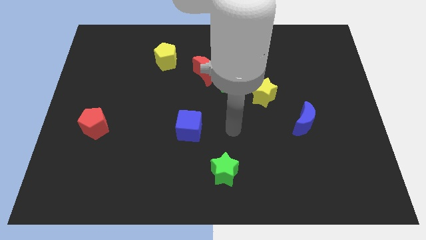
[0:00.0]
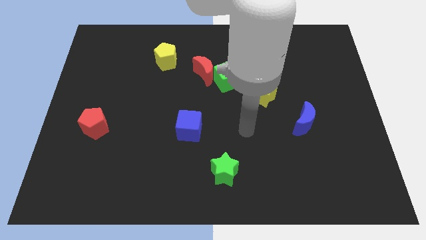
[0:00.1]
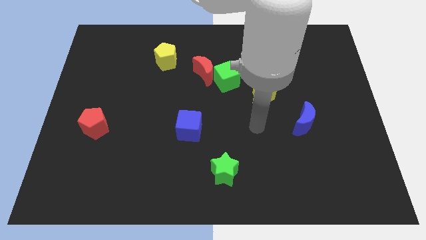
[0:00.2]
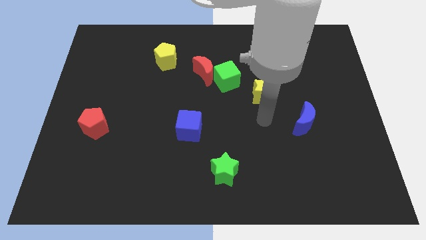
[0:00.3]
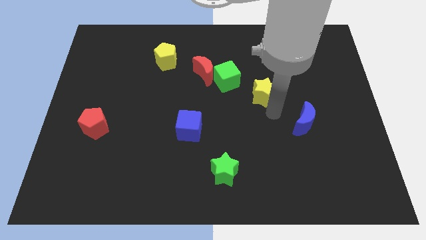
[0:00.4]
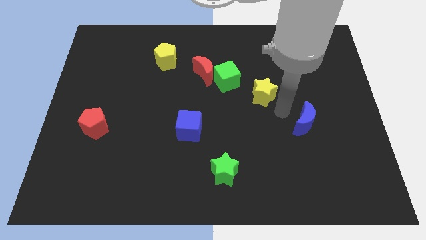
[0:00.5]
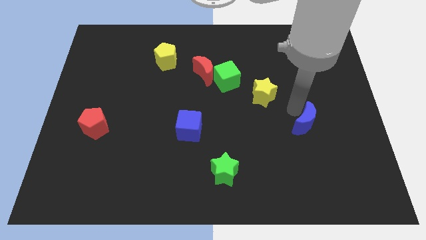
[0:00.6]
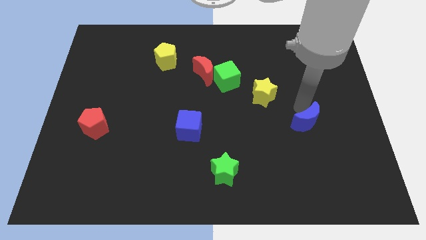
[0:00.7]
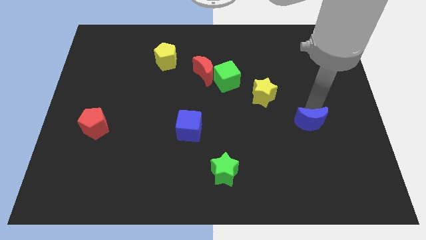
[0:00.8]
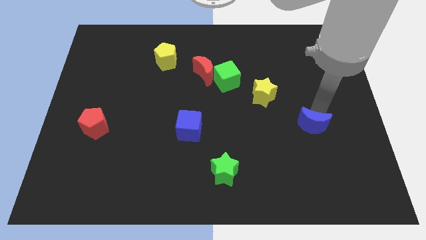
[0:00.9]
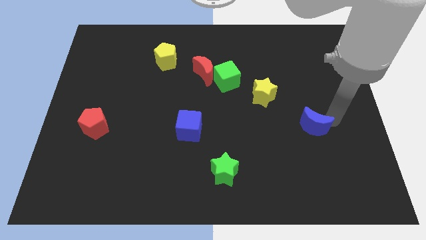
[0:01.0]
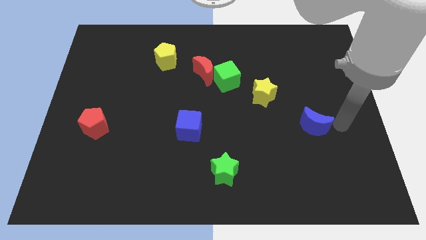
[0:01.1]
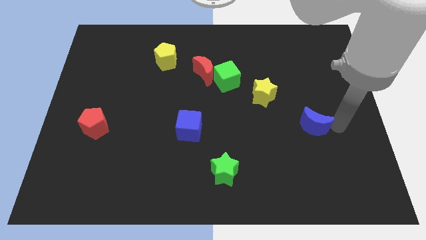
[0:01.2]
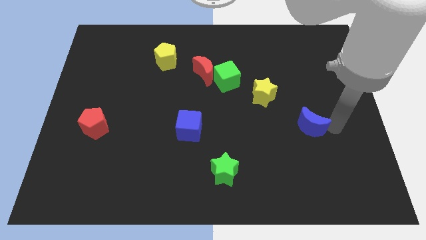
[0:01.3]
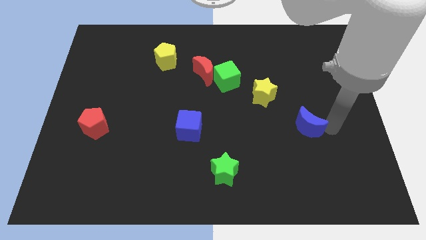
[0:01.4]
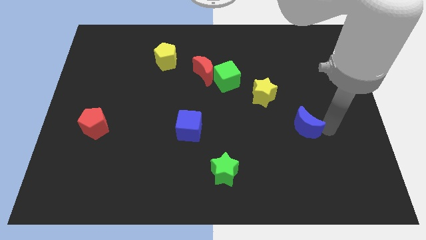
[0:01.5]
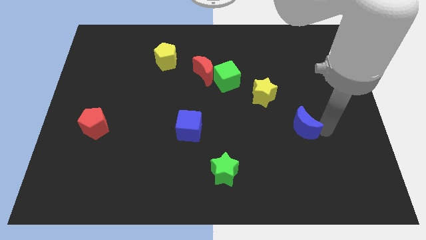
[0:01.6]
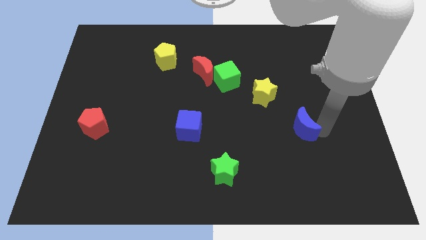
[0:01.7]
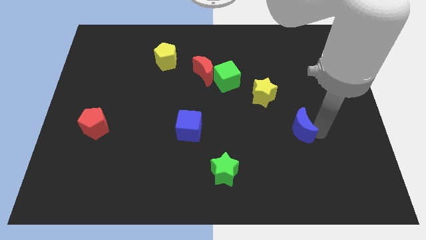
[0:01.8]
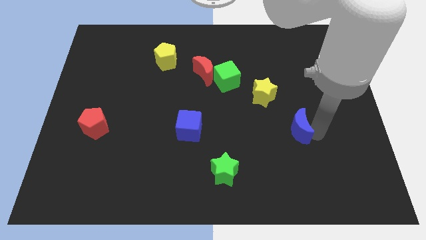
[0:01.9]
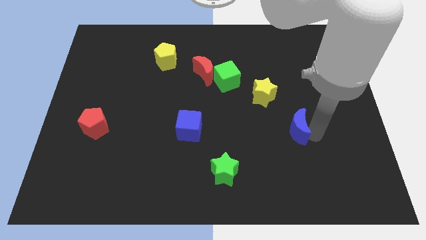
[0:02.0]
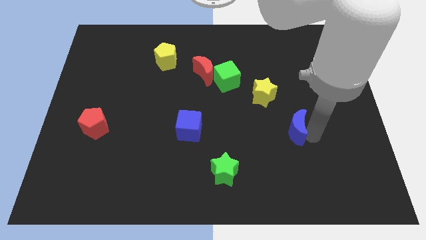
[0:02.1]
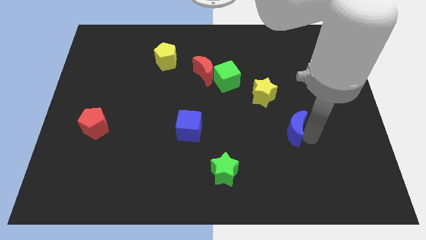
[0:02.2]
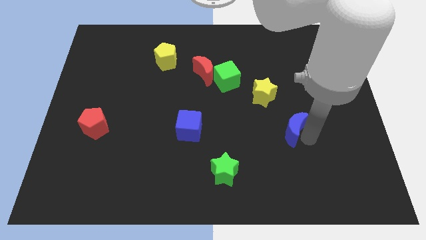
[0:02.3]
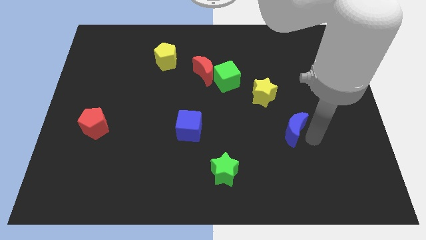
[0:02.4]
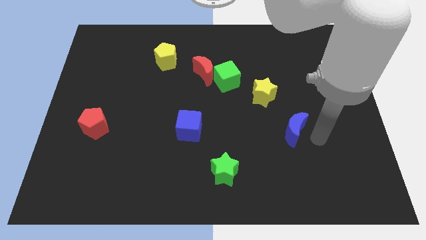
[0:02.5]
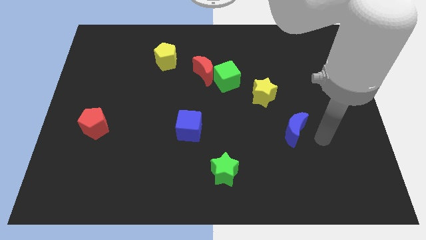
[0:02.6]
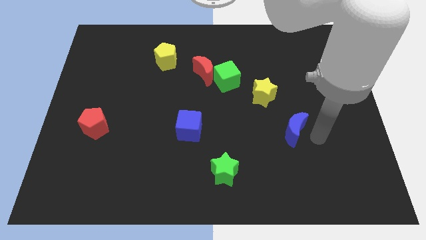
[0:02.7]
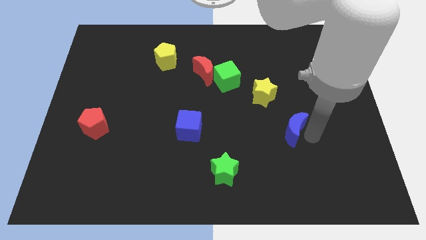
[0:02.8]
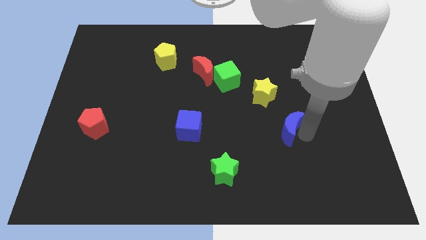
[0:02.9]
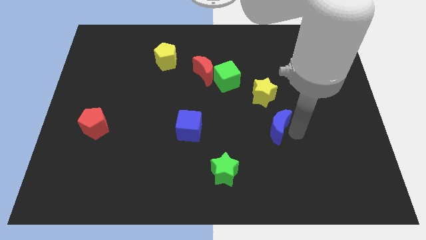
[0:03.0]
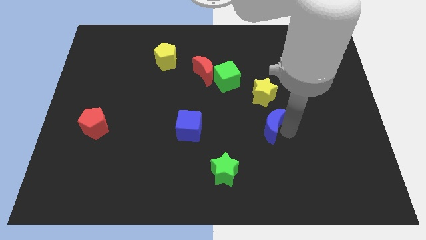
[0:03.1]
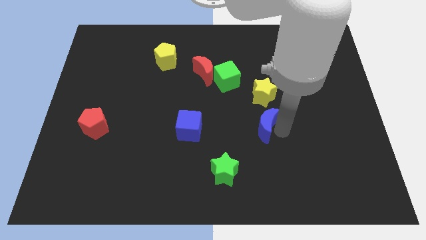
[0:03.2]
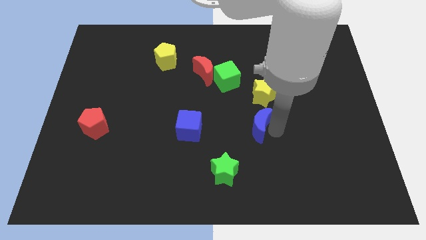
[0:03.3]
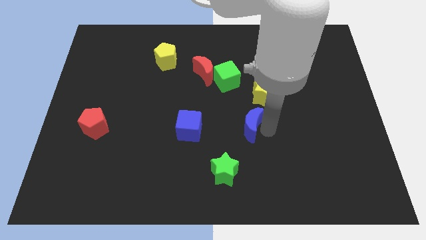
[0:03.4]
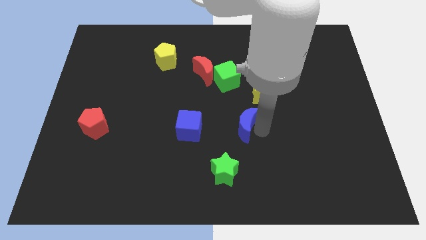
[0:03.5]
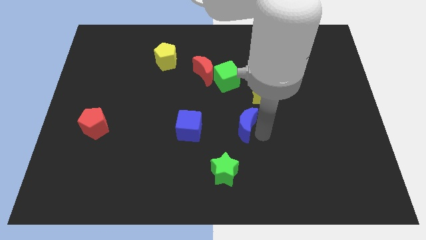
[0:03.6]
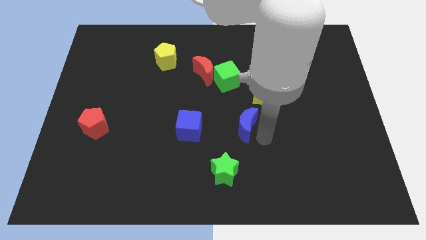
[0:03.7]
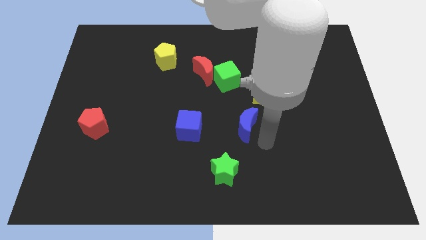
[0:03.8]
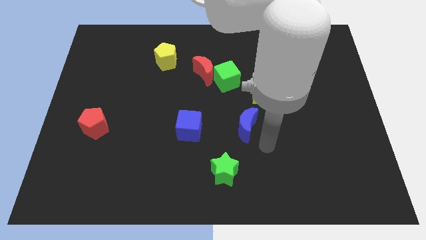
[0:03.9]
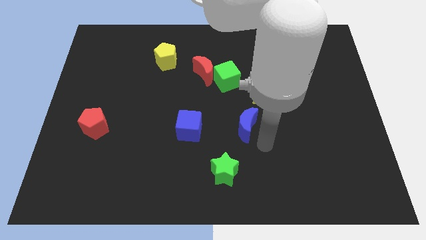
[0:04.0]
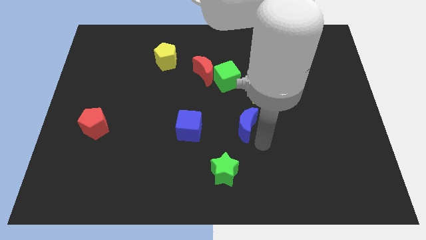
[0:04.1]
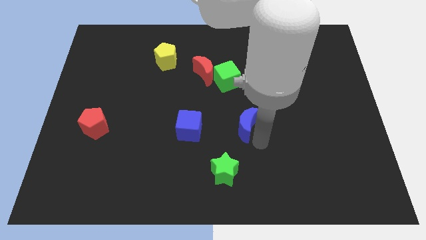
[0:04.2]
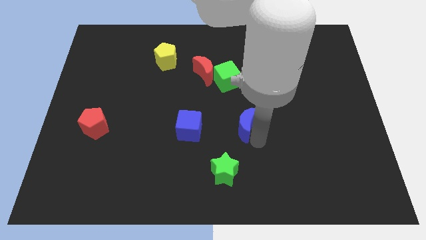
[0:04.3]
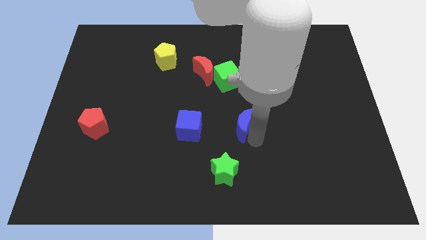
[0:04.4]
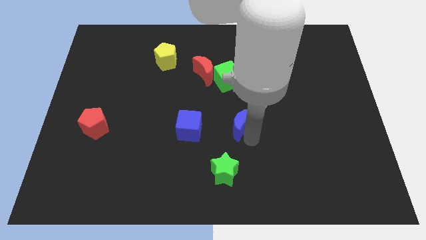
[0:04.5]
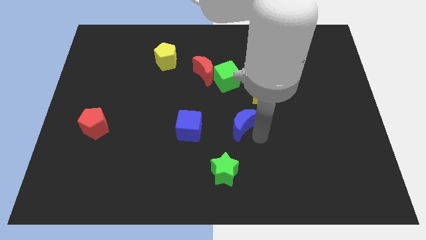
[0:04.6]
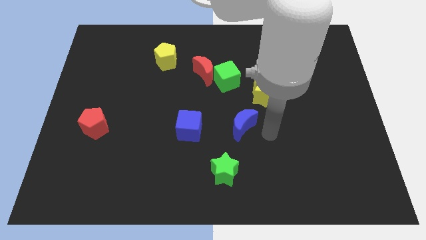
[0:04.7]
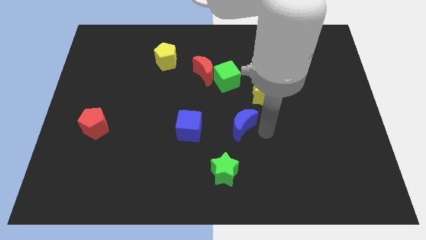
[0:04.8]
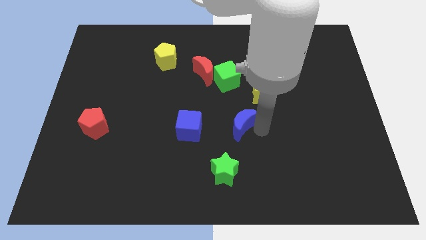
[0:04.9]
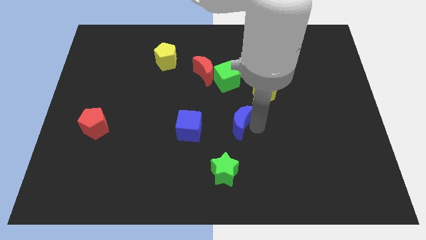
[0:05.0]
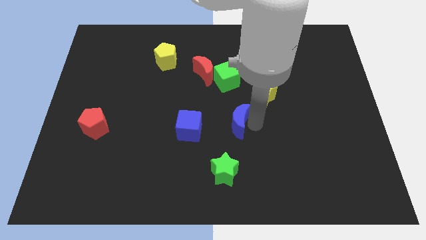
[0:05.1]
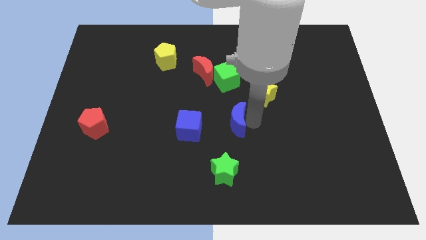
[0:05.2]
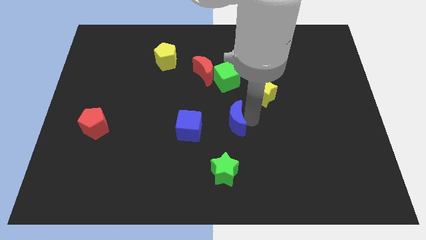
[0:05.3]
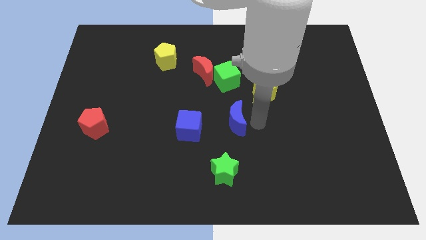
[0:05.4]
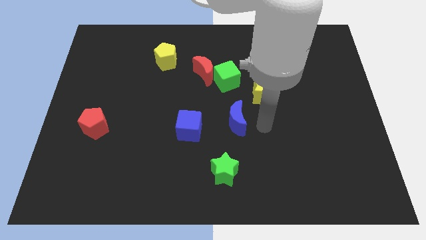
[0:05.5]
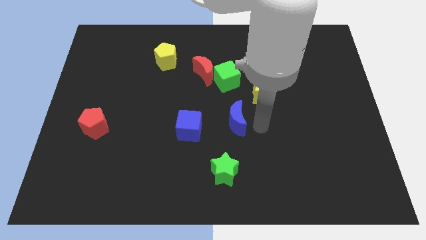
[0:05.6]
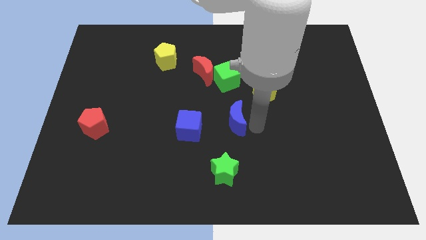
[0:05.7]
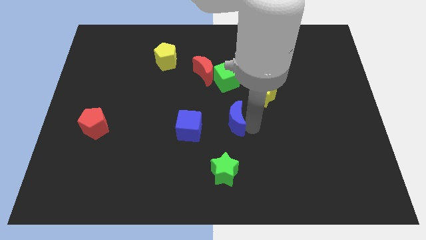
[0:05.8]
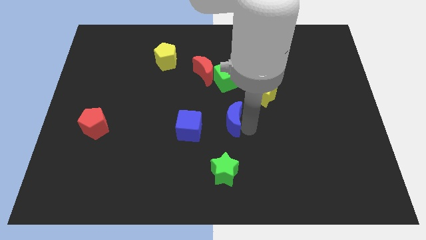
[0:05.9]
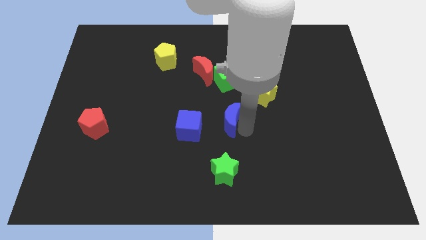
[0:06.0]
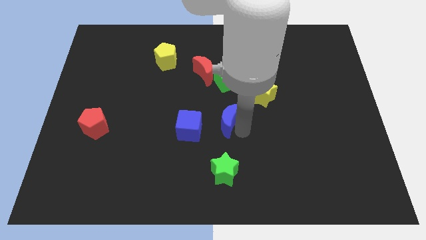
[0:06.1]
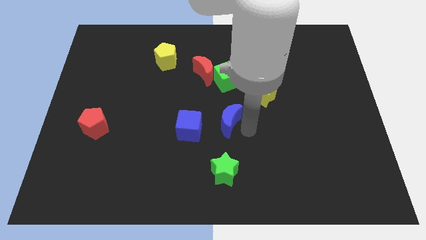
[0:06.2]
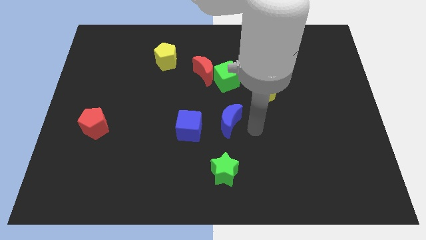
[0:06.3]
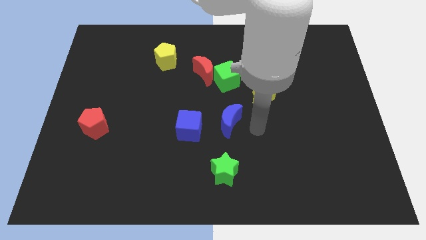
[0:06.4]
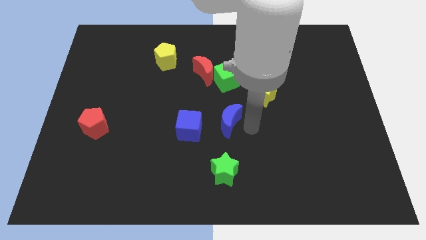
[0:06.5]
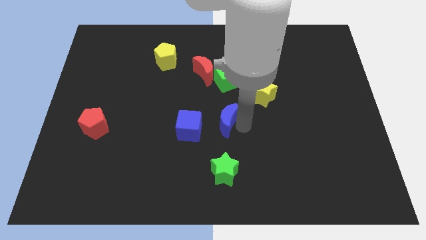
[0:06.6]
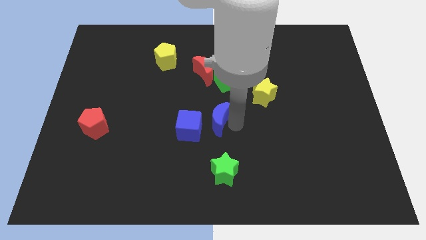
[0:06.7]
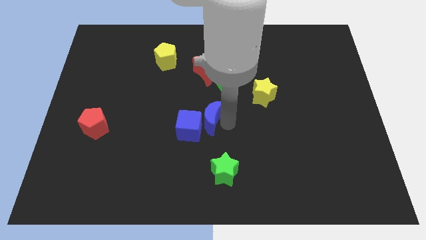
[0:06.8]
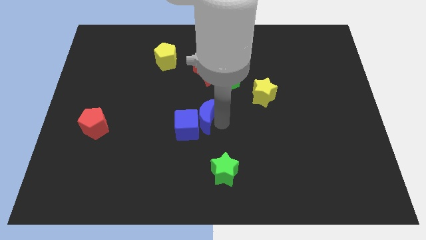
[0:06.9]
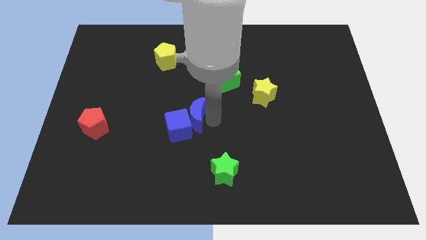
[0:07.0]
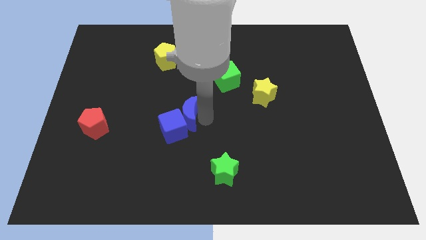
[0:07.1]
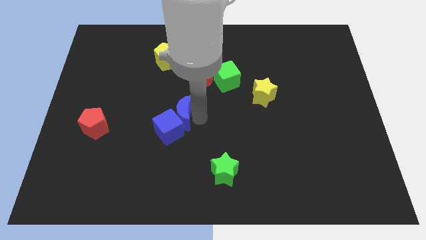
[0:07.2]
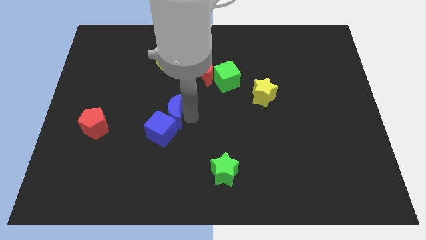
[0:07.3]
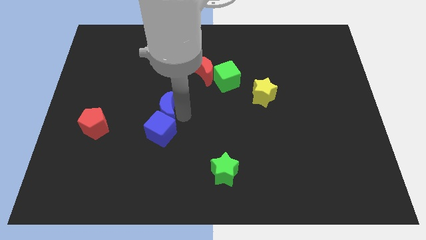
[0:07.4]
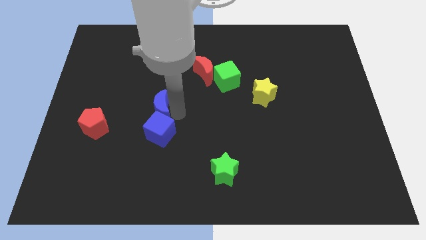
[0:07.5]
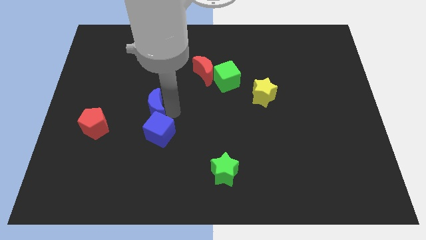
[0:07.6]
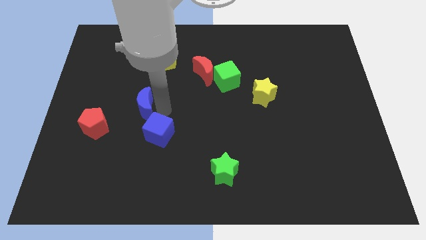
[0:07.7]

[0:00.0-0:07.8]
move the blue moon diagonally up and to the right of the red pentagon
